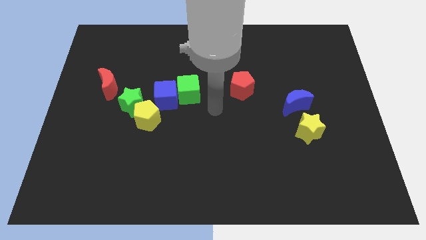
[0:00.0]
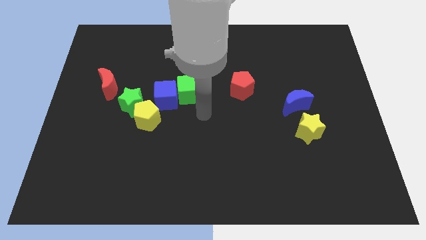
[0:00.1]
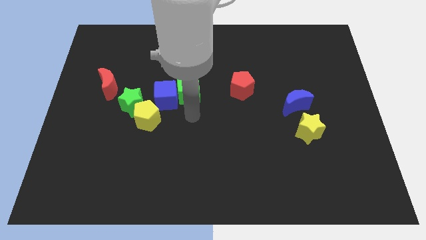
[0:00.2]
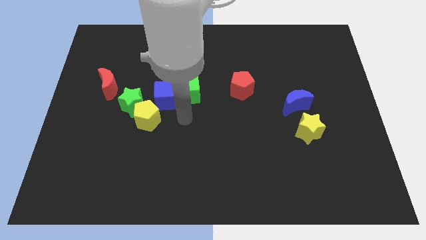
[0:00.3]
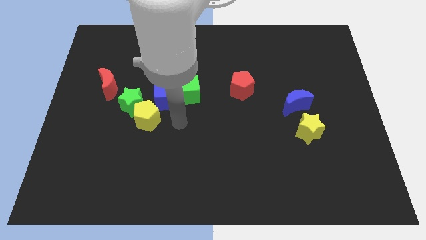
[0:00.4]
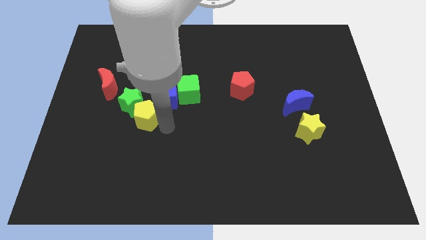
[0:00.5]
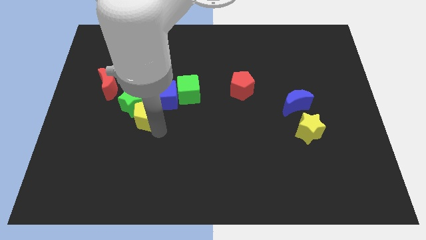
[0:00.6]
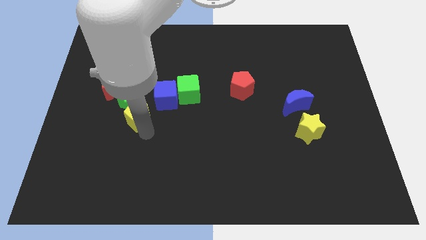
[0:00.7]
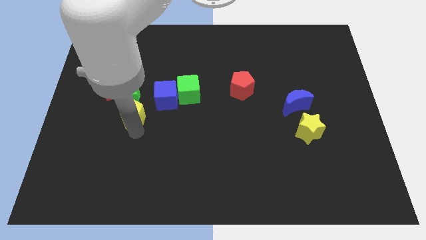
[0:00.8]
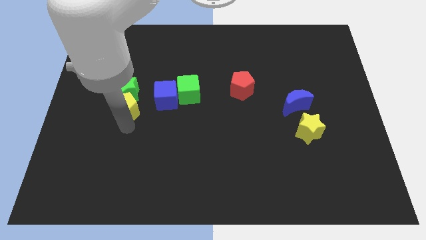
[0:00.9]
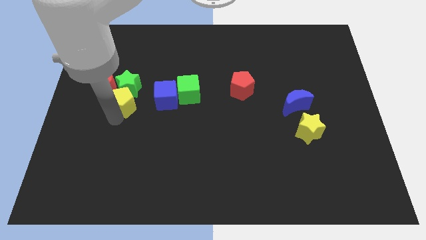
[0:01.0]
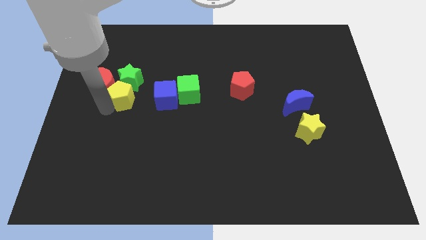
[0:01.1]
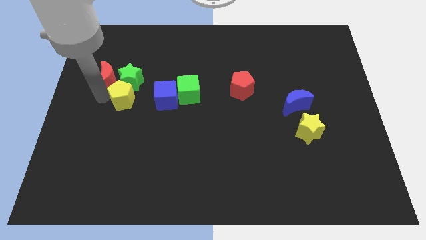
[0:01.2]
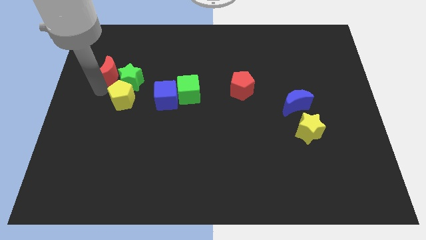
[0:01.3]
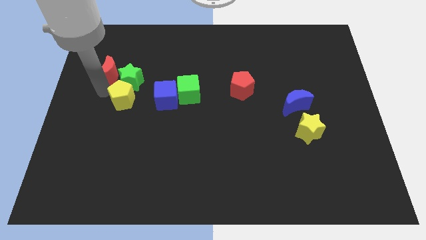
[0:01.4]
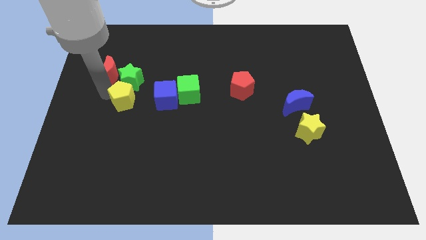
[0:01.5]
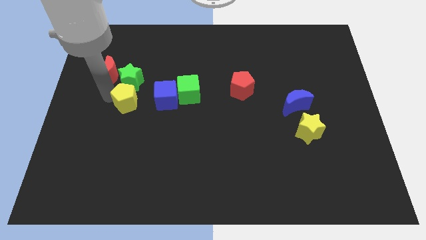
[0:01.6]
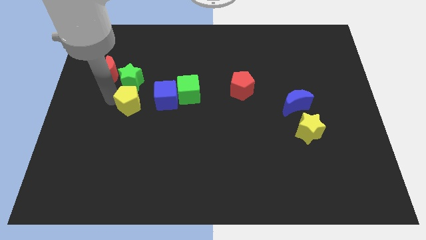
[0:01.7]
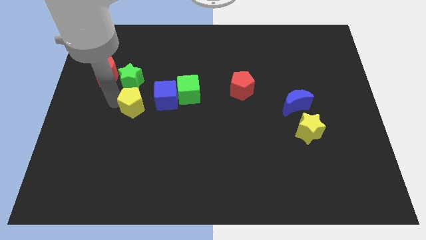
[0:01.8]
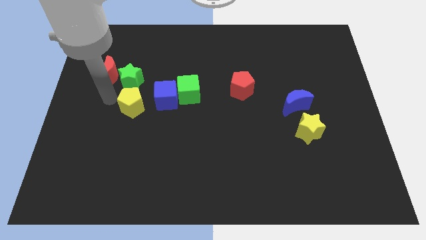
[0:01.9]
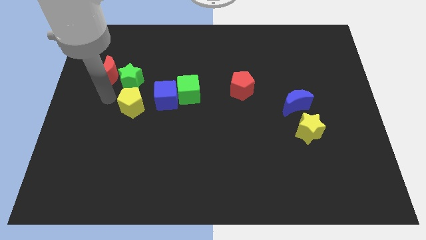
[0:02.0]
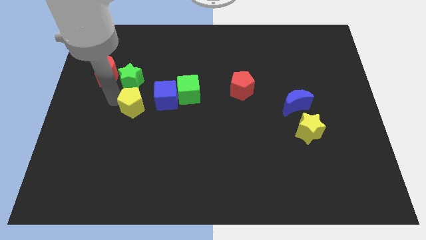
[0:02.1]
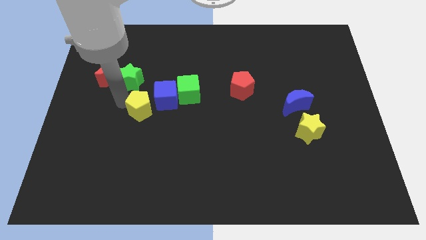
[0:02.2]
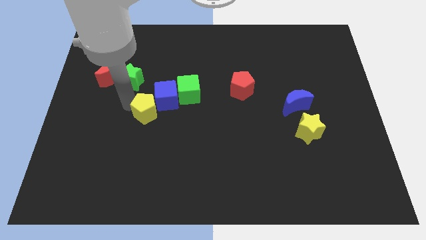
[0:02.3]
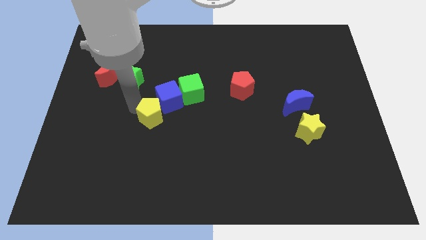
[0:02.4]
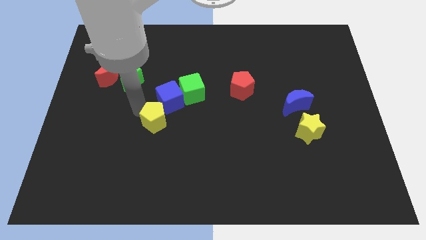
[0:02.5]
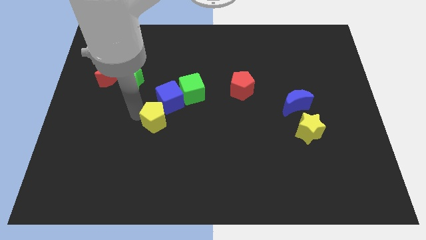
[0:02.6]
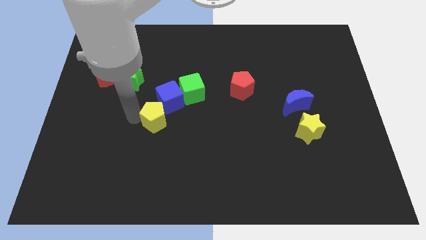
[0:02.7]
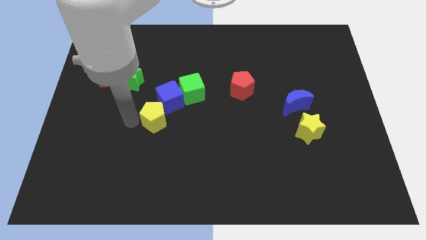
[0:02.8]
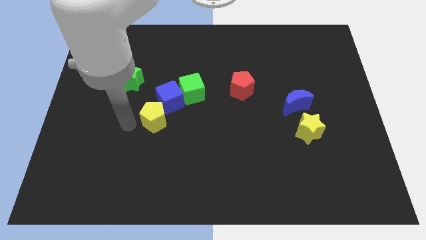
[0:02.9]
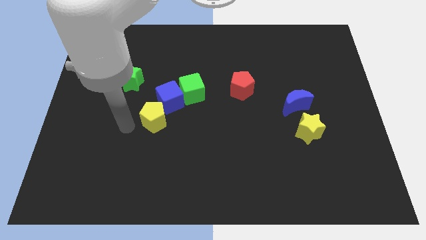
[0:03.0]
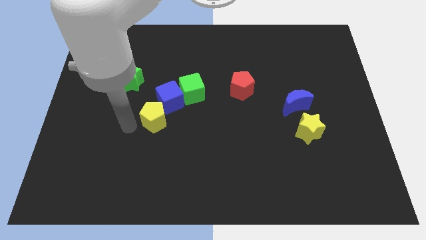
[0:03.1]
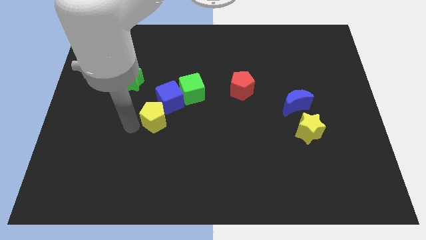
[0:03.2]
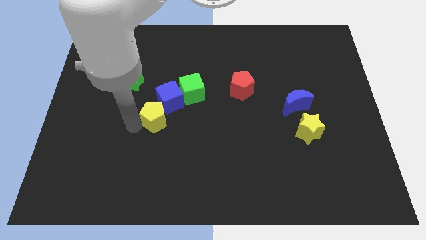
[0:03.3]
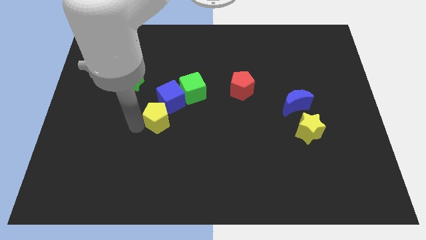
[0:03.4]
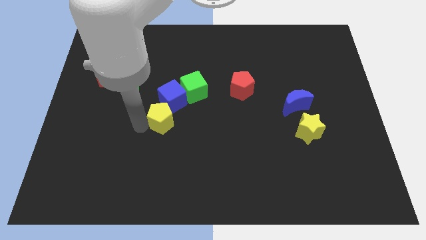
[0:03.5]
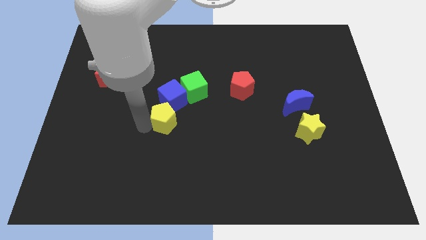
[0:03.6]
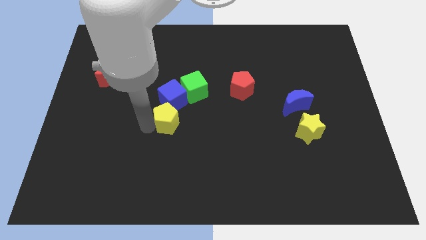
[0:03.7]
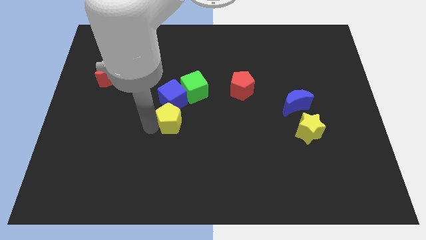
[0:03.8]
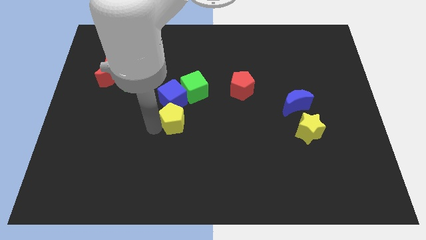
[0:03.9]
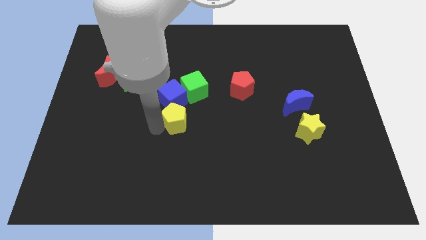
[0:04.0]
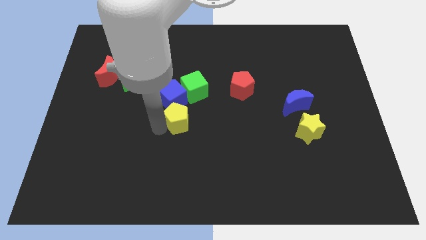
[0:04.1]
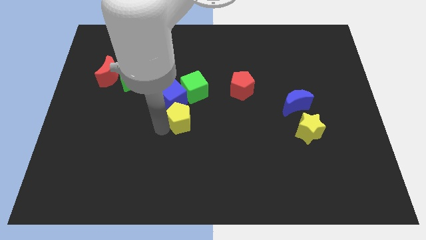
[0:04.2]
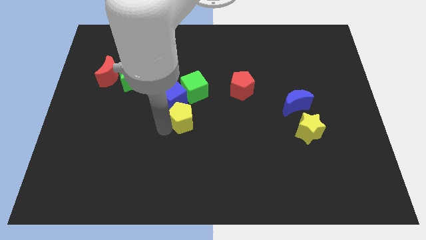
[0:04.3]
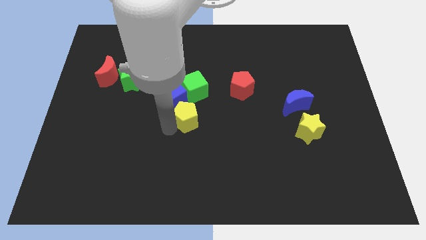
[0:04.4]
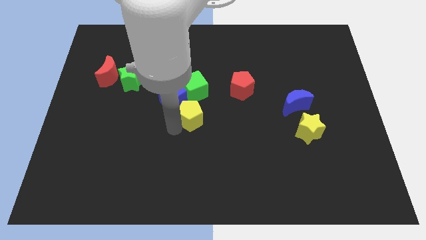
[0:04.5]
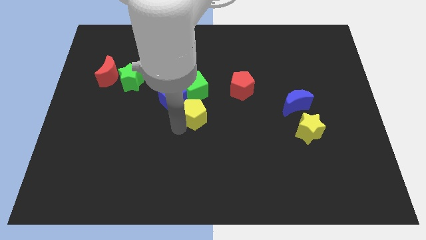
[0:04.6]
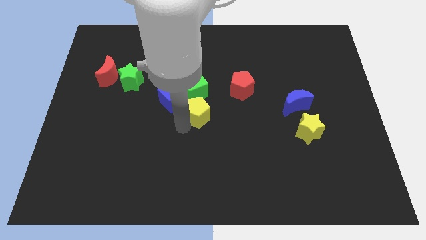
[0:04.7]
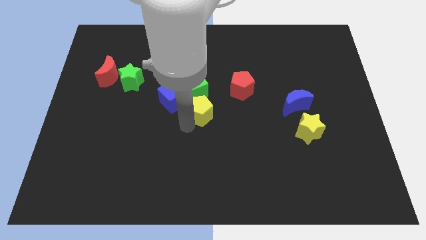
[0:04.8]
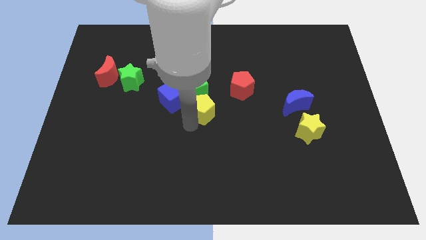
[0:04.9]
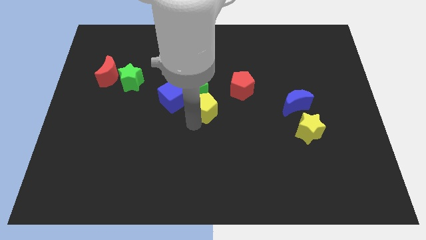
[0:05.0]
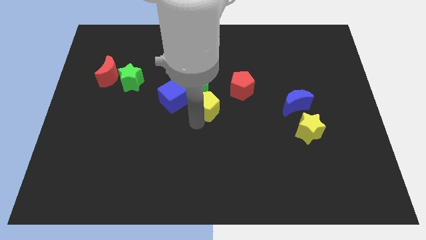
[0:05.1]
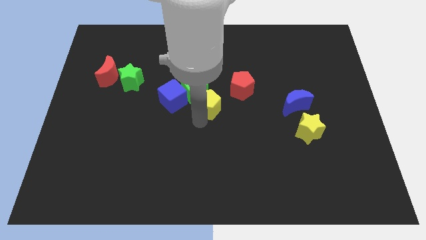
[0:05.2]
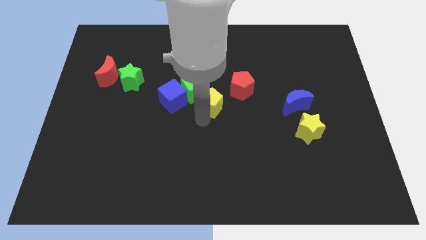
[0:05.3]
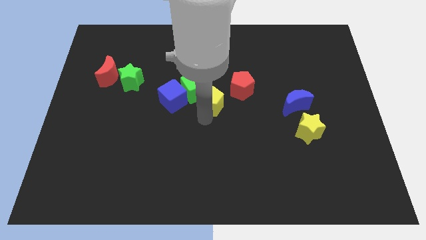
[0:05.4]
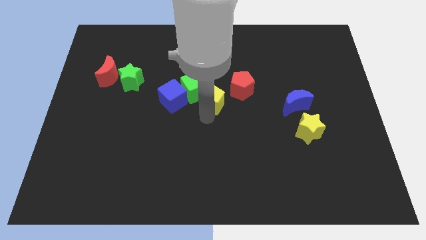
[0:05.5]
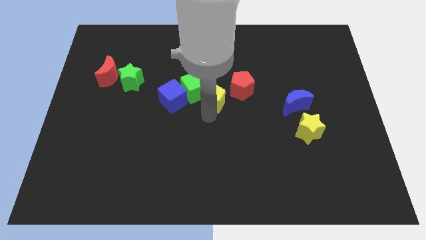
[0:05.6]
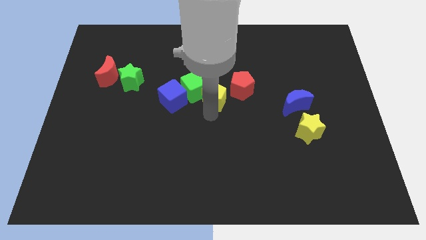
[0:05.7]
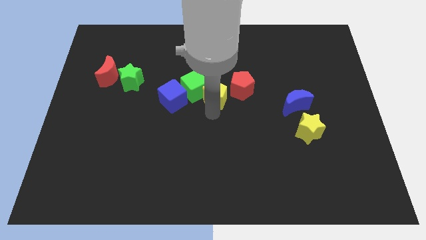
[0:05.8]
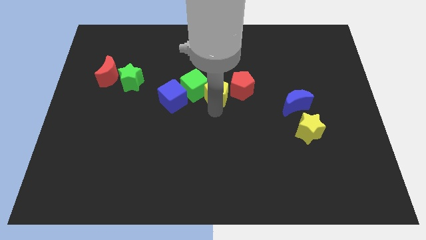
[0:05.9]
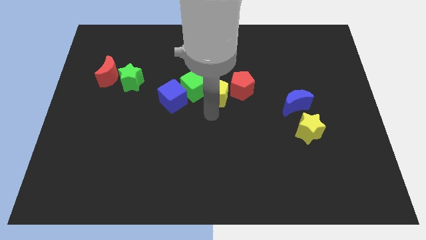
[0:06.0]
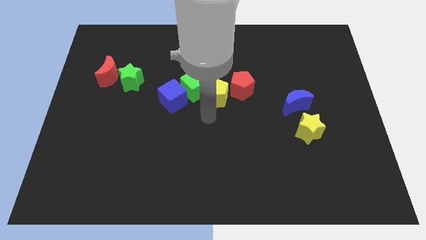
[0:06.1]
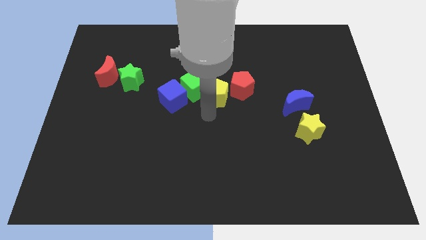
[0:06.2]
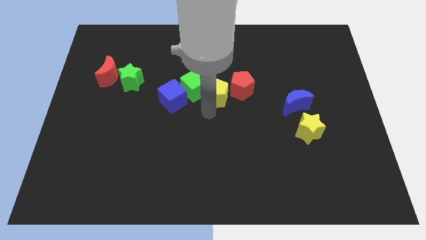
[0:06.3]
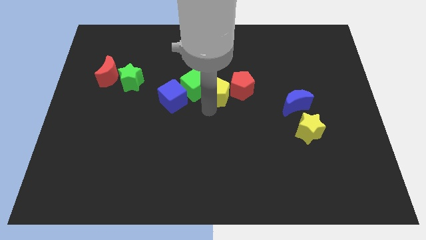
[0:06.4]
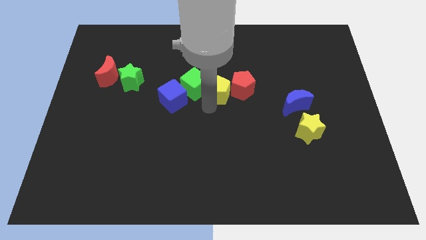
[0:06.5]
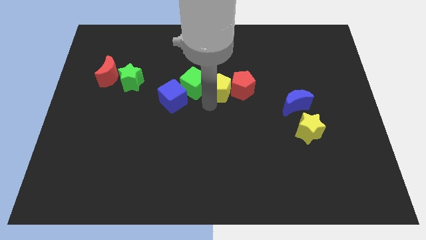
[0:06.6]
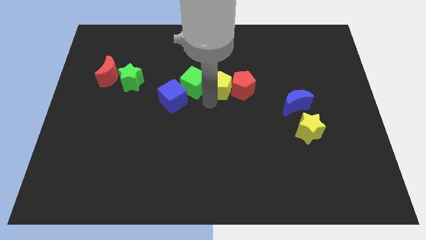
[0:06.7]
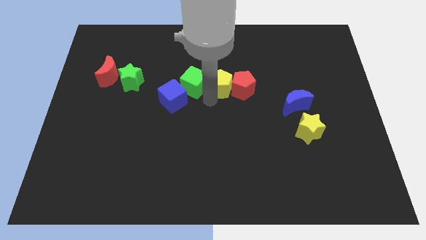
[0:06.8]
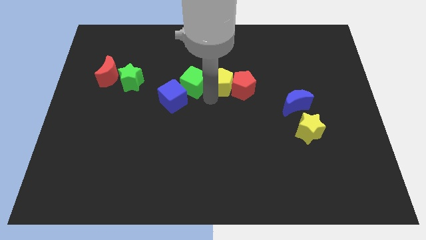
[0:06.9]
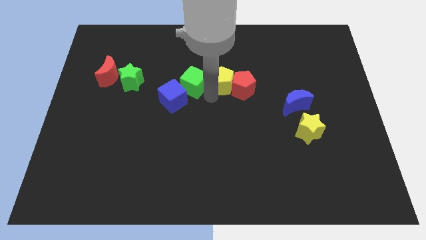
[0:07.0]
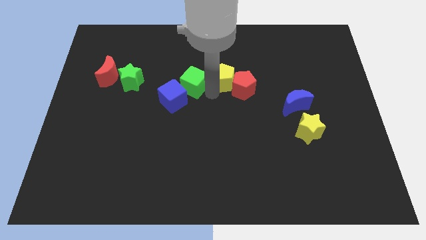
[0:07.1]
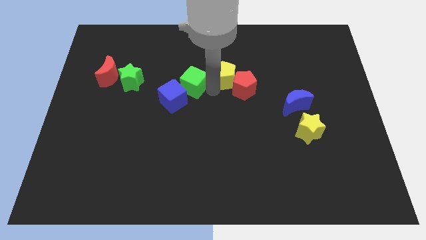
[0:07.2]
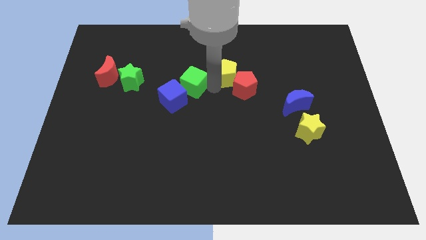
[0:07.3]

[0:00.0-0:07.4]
slide the yellow pentagon to the top of the red pentagon
